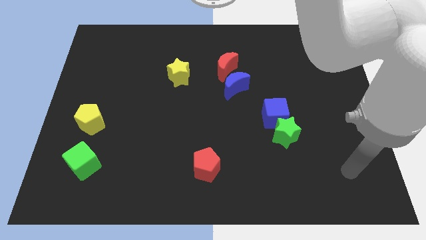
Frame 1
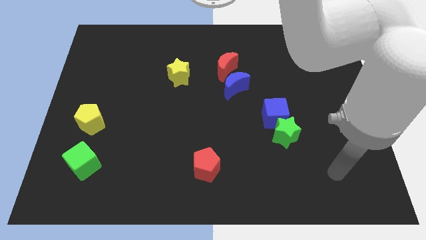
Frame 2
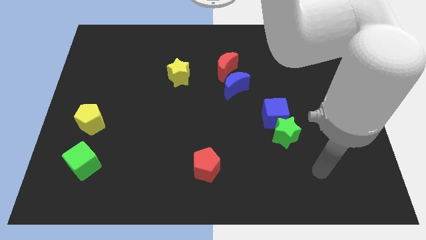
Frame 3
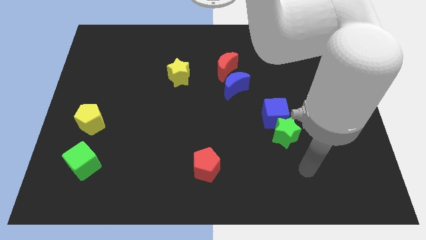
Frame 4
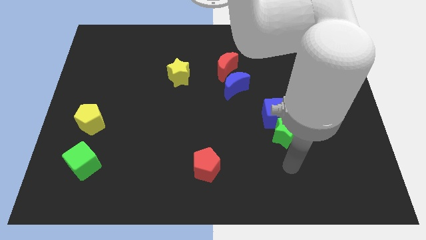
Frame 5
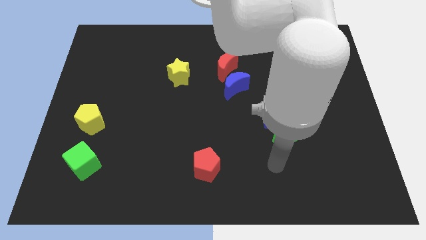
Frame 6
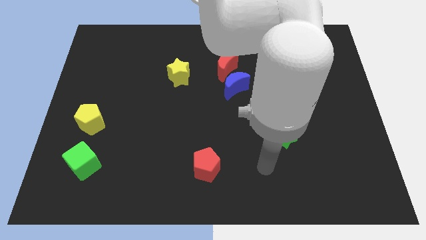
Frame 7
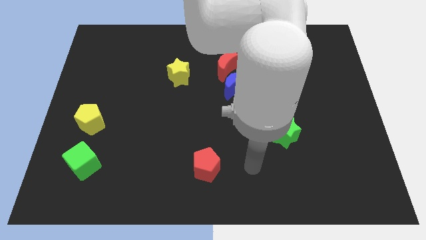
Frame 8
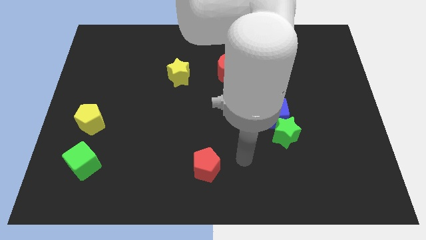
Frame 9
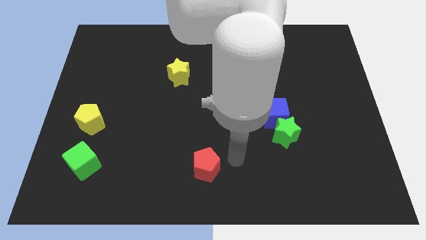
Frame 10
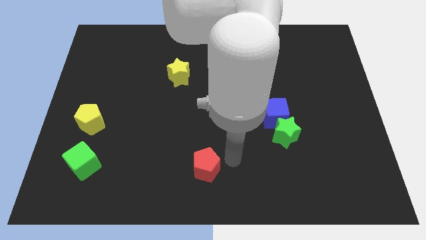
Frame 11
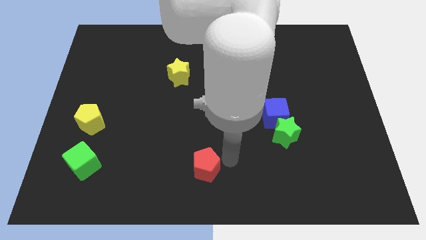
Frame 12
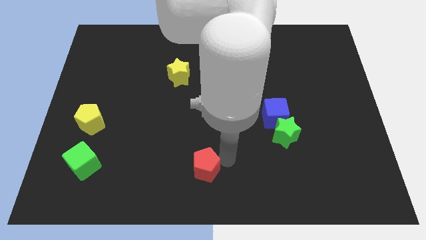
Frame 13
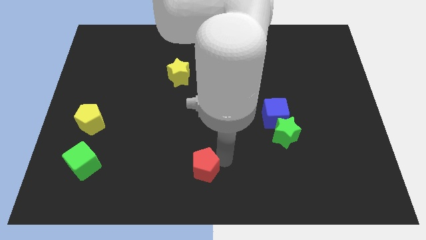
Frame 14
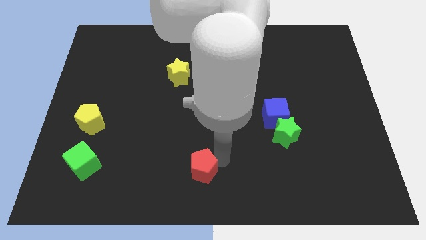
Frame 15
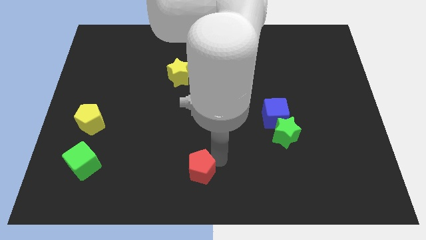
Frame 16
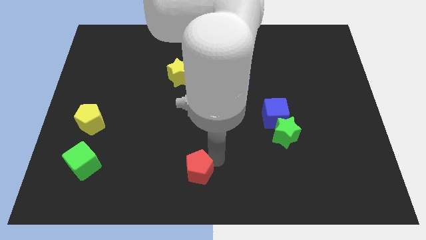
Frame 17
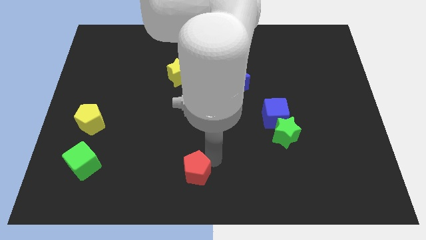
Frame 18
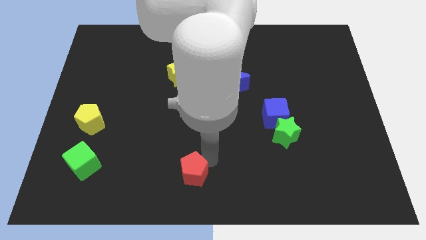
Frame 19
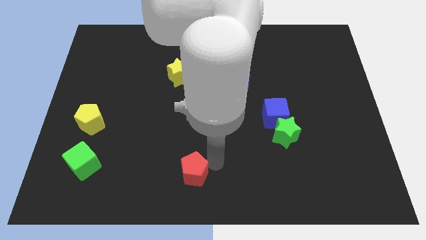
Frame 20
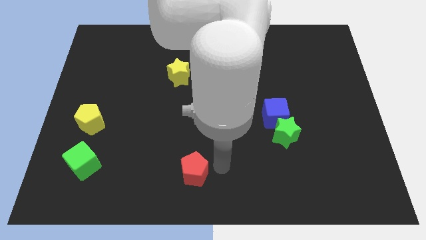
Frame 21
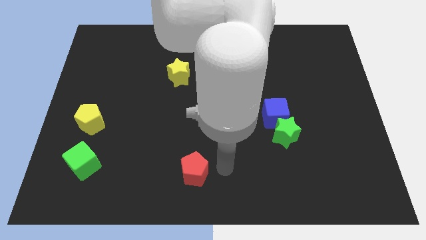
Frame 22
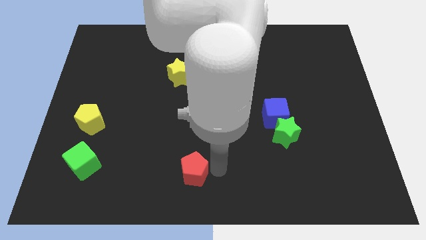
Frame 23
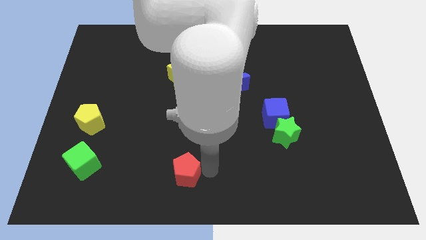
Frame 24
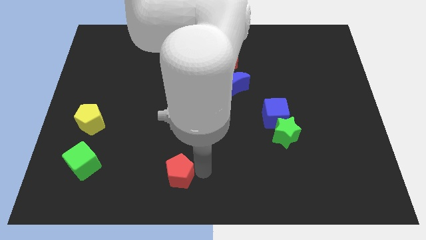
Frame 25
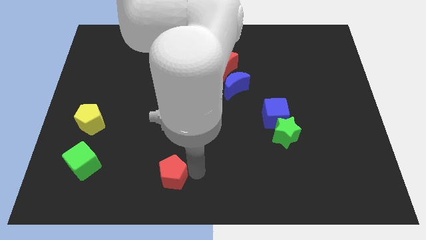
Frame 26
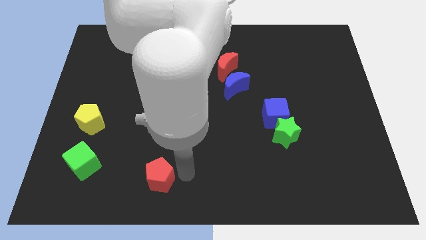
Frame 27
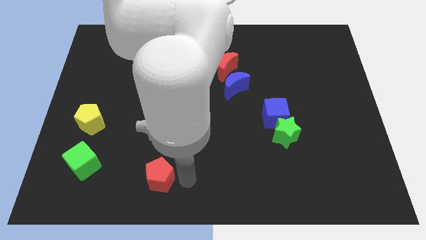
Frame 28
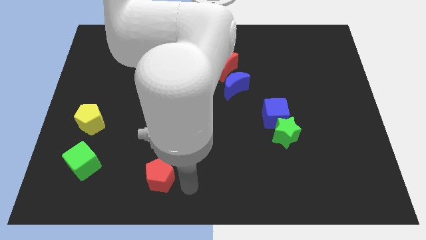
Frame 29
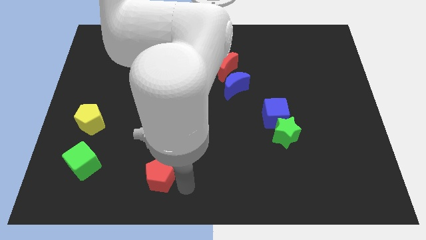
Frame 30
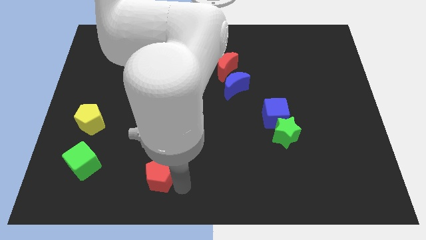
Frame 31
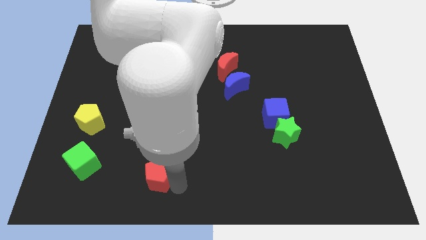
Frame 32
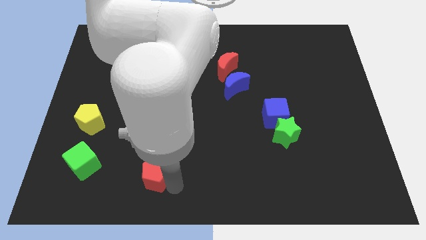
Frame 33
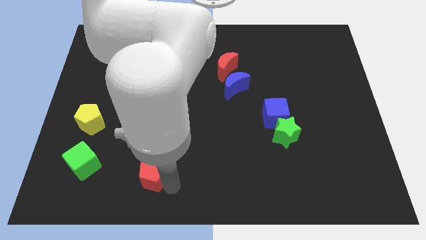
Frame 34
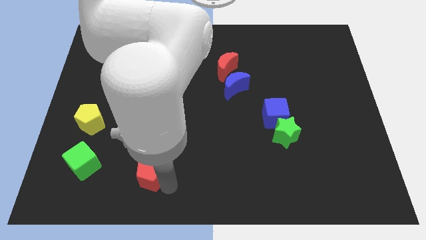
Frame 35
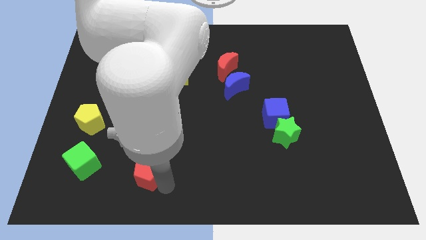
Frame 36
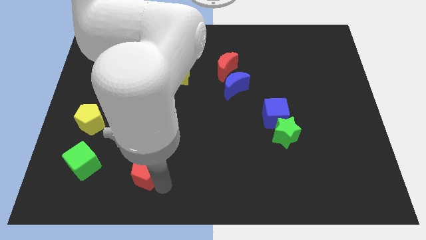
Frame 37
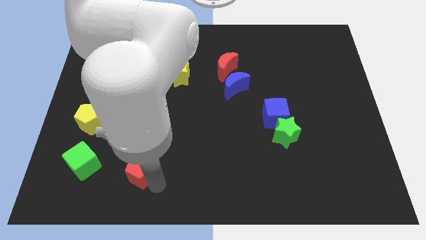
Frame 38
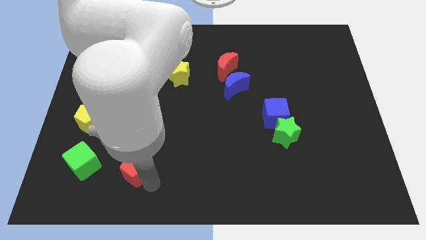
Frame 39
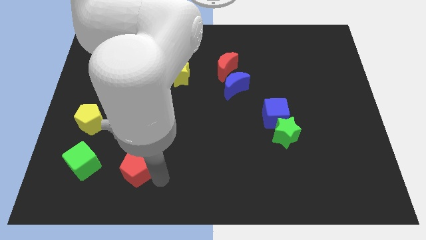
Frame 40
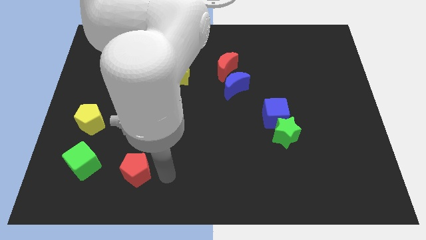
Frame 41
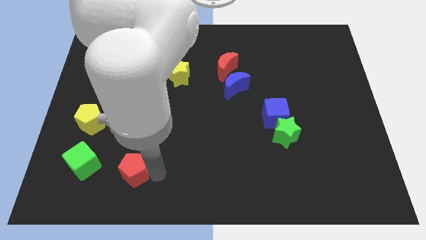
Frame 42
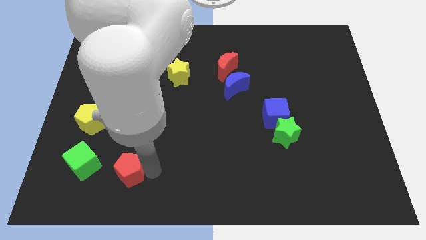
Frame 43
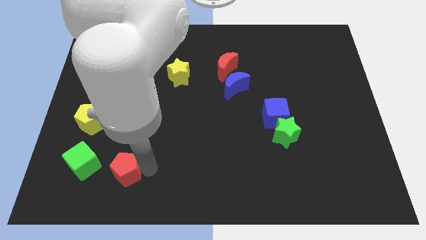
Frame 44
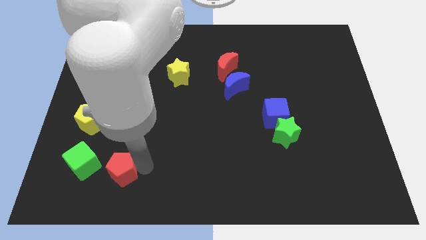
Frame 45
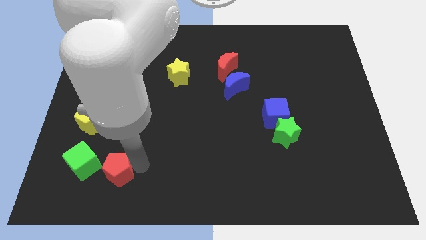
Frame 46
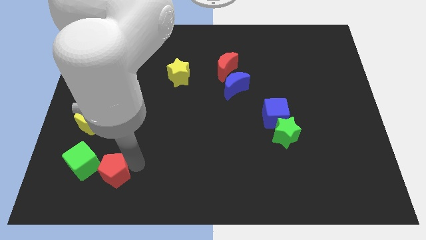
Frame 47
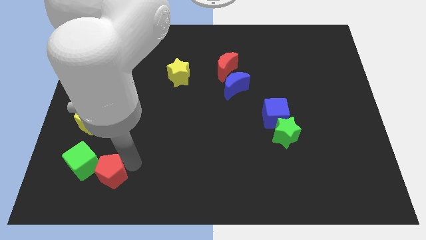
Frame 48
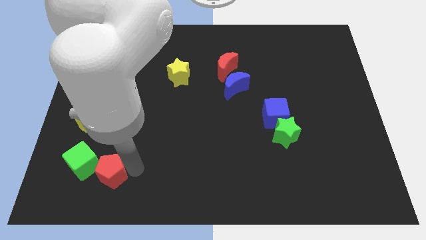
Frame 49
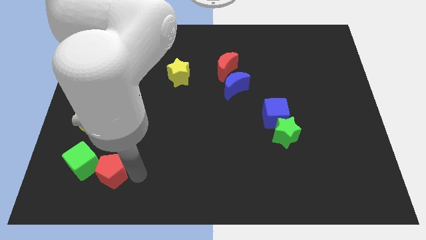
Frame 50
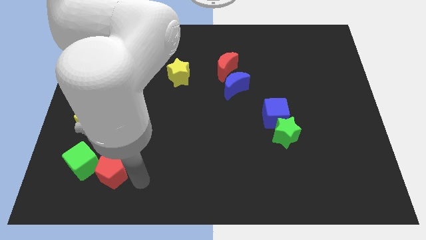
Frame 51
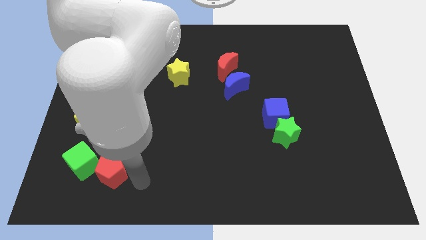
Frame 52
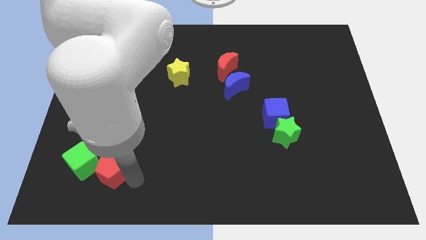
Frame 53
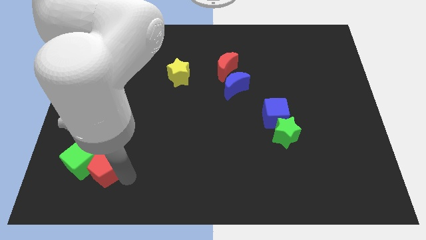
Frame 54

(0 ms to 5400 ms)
move the red pentagon to the green cube

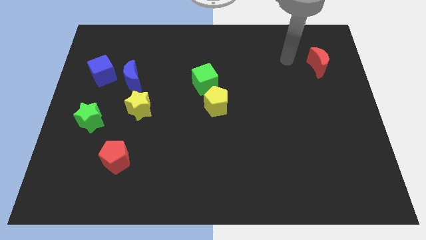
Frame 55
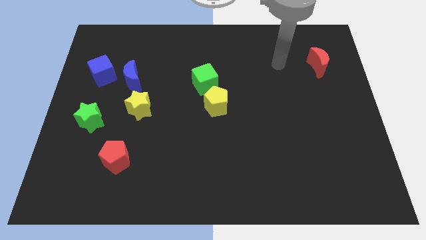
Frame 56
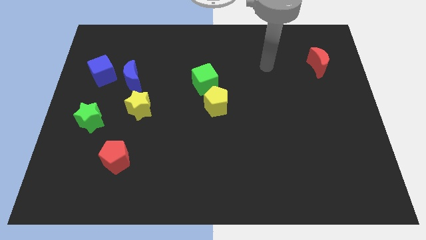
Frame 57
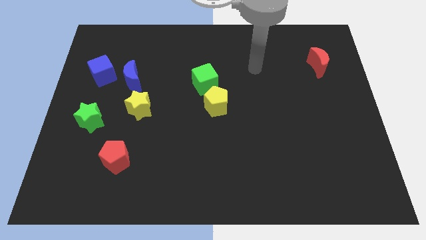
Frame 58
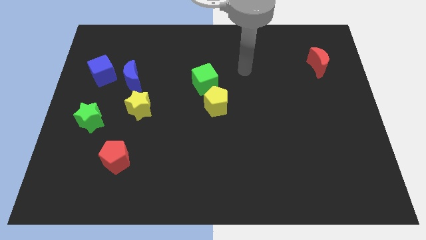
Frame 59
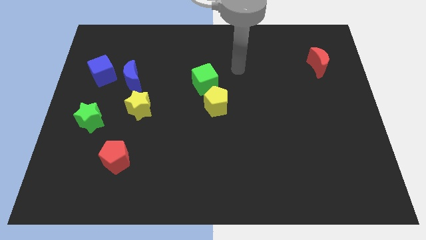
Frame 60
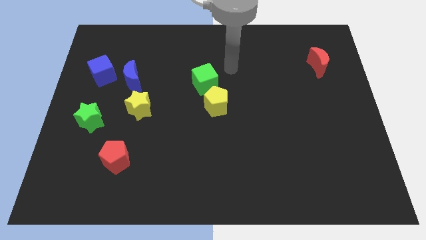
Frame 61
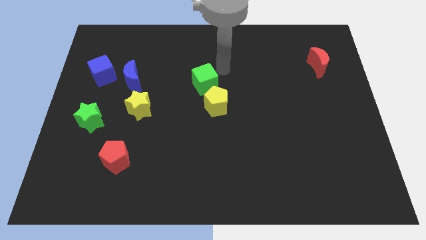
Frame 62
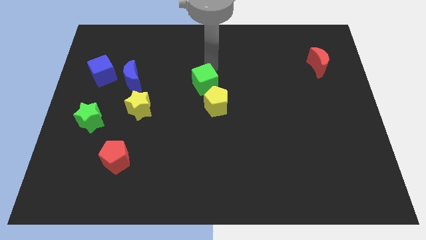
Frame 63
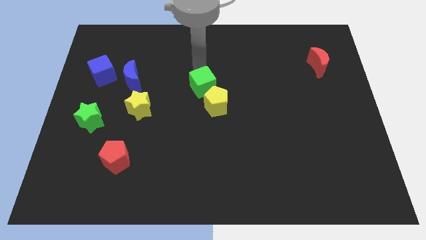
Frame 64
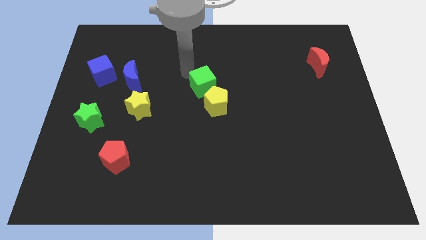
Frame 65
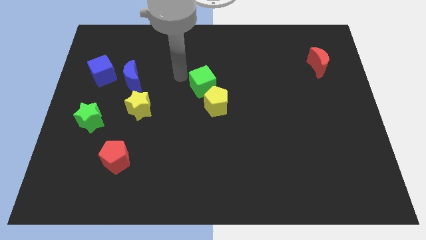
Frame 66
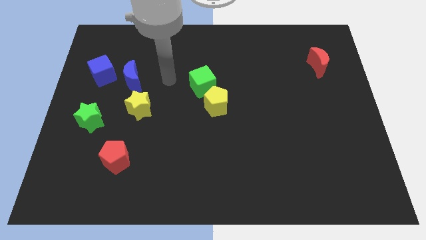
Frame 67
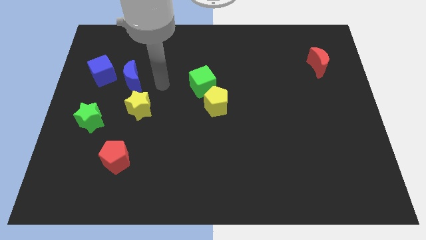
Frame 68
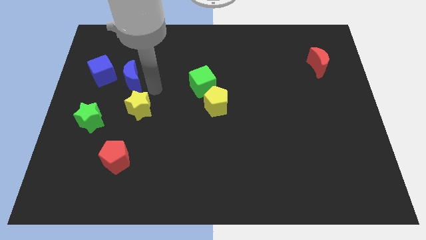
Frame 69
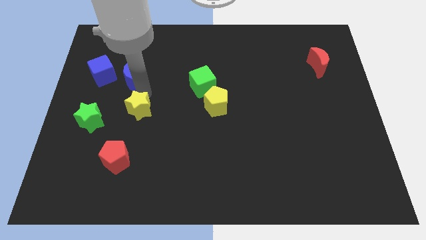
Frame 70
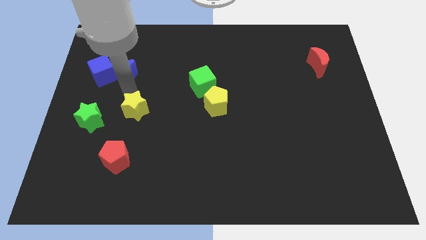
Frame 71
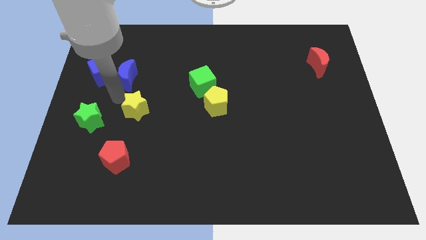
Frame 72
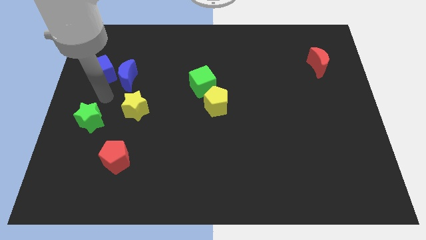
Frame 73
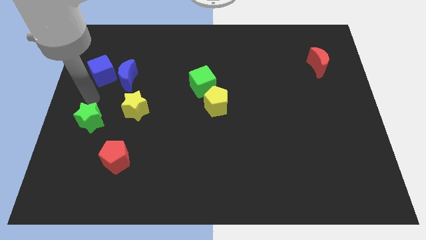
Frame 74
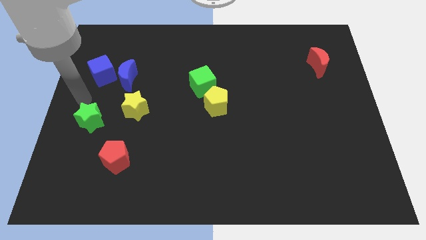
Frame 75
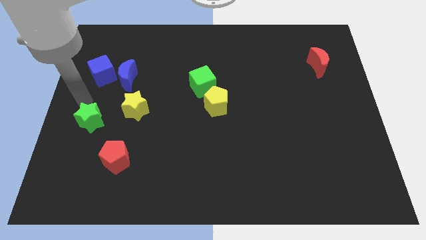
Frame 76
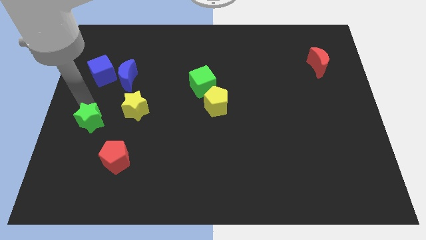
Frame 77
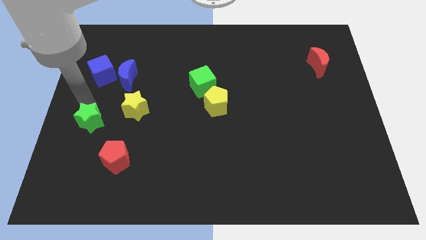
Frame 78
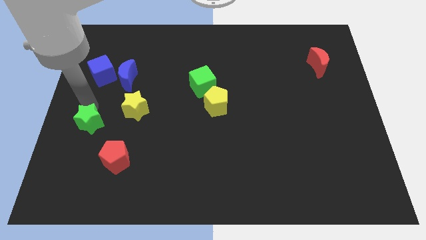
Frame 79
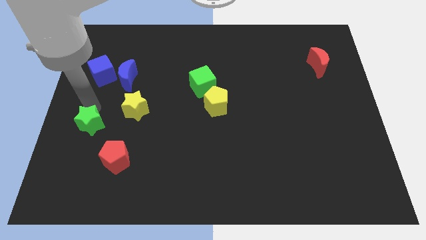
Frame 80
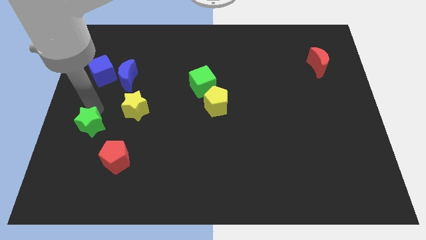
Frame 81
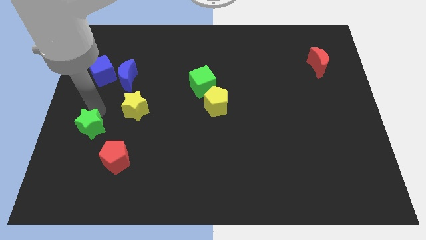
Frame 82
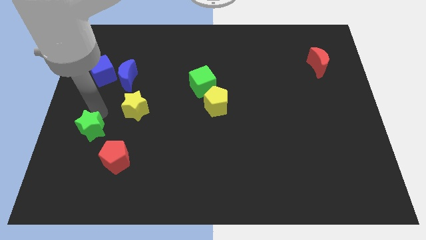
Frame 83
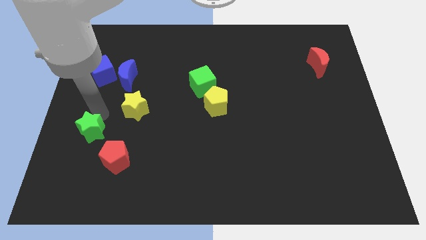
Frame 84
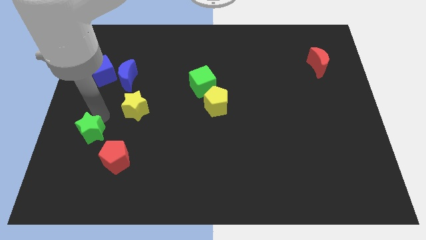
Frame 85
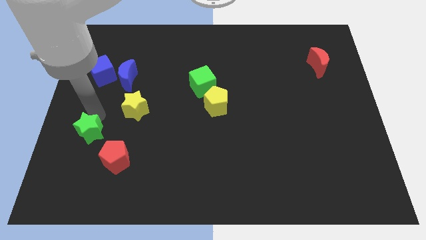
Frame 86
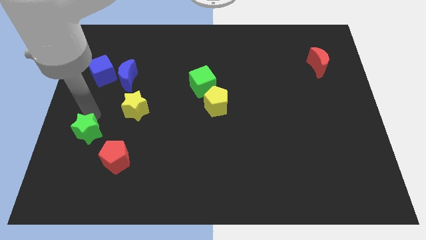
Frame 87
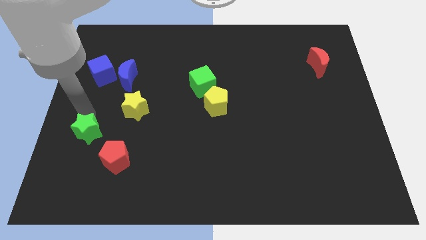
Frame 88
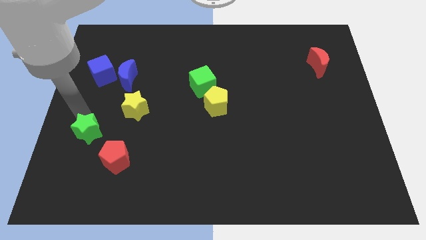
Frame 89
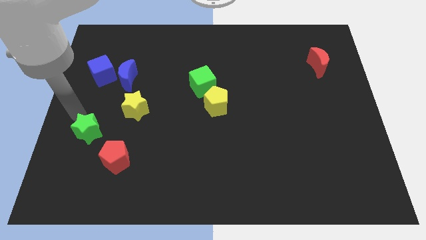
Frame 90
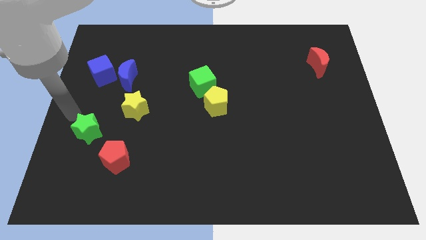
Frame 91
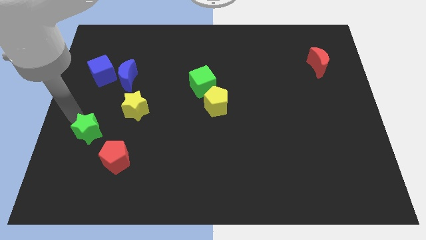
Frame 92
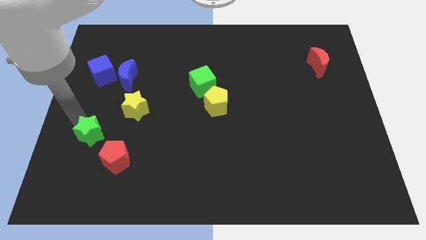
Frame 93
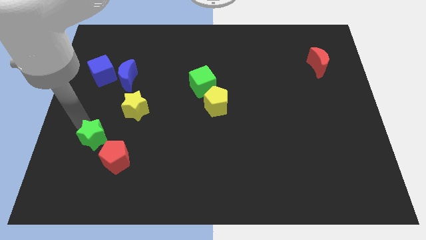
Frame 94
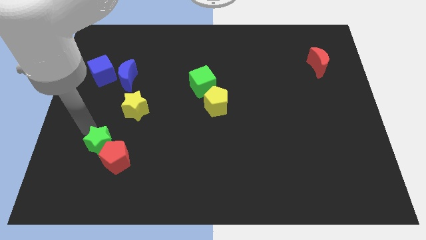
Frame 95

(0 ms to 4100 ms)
slide the green star to the red pentagon
